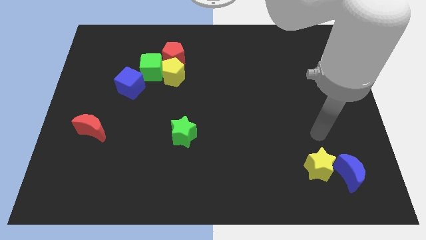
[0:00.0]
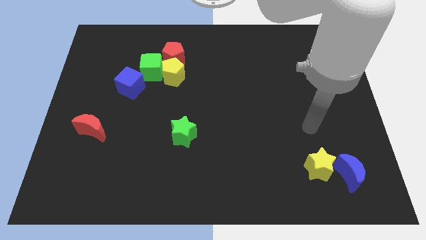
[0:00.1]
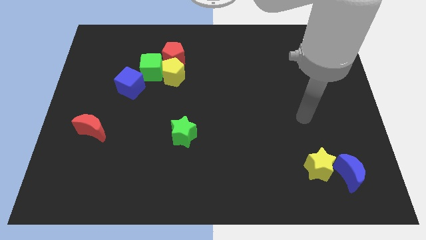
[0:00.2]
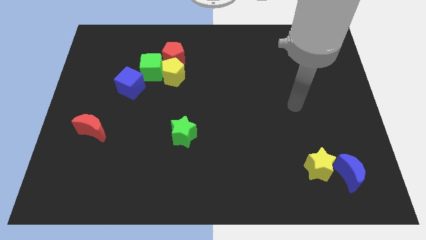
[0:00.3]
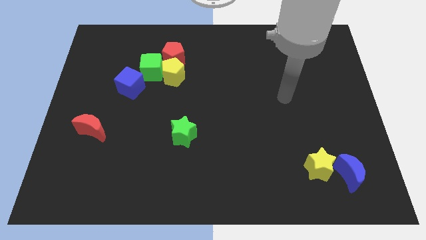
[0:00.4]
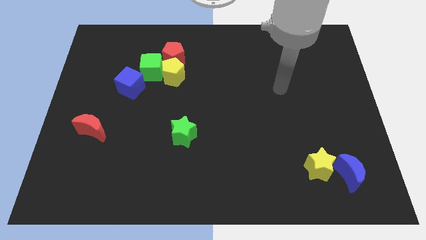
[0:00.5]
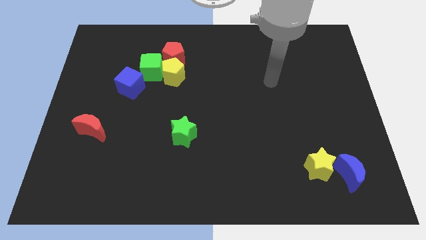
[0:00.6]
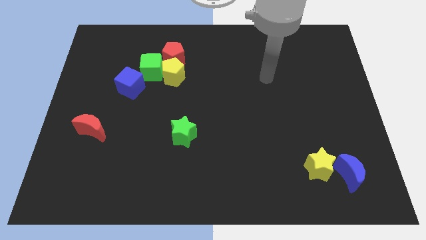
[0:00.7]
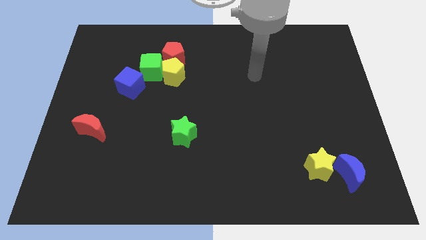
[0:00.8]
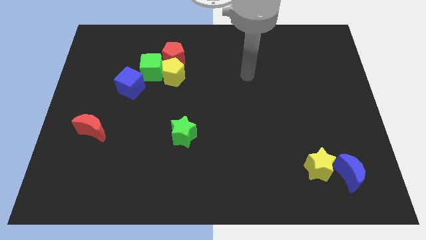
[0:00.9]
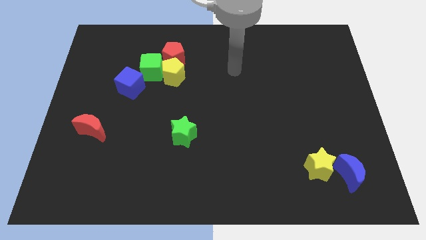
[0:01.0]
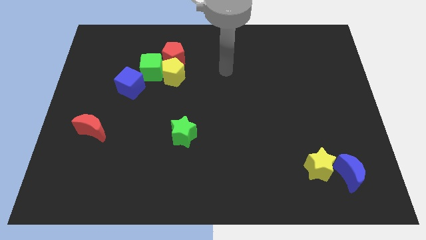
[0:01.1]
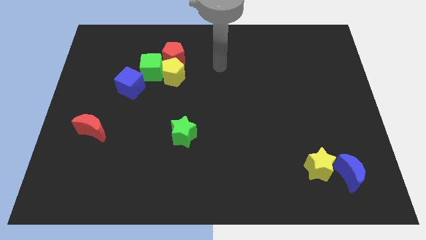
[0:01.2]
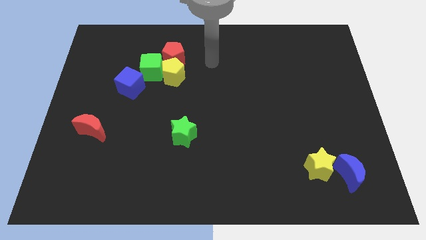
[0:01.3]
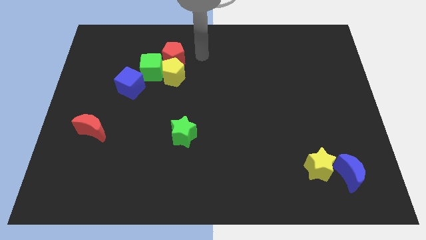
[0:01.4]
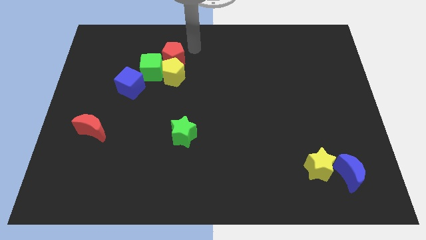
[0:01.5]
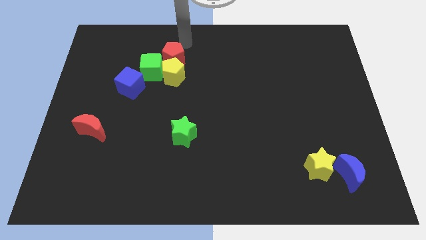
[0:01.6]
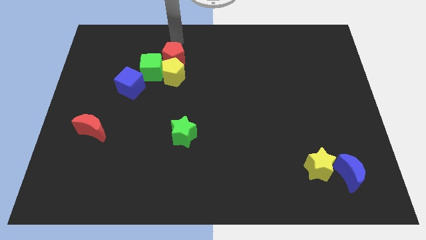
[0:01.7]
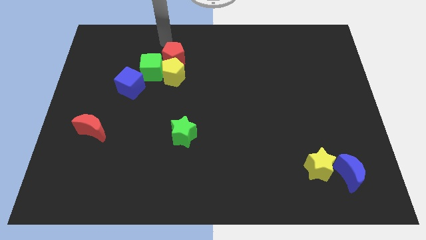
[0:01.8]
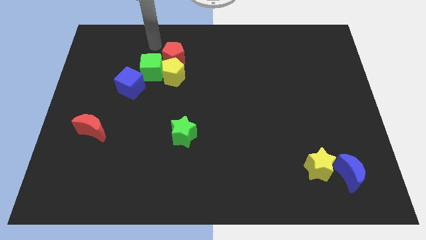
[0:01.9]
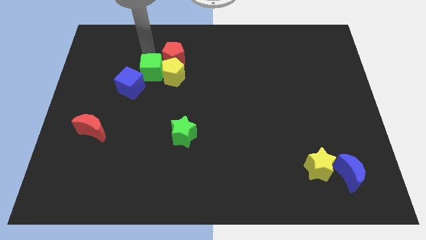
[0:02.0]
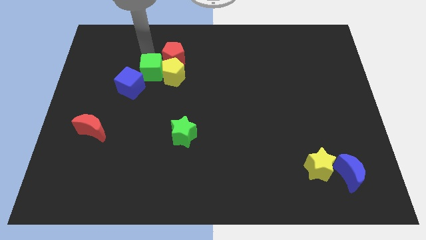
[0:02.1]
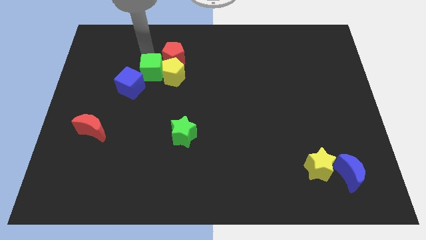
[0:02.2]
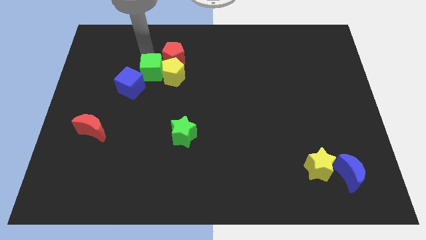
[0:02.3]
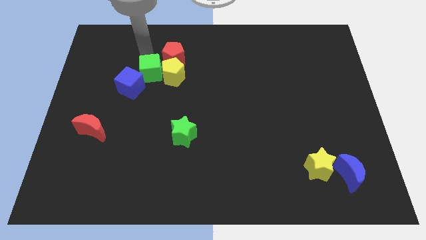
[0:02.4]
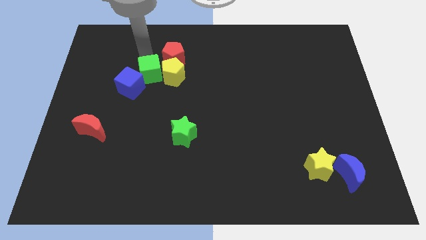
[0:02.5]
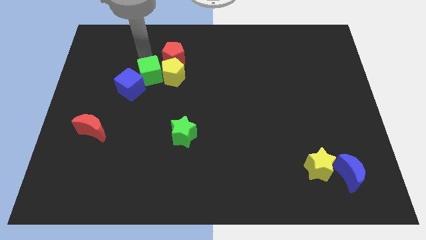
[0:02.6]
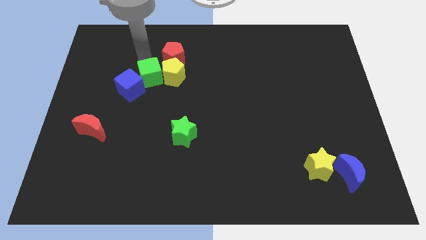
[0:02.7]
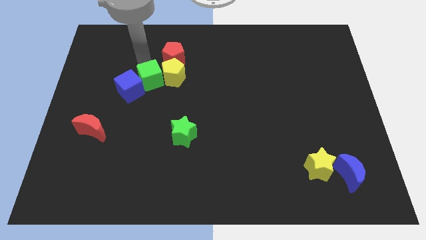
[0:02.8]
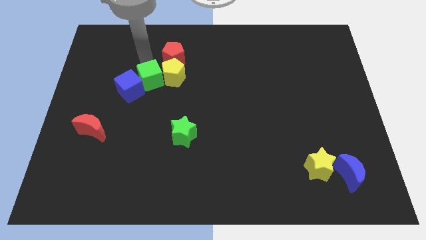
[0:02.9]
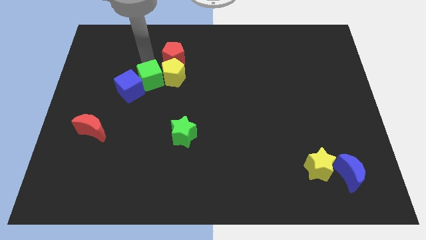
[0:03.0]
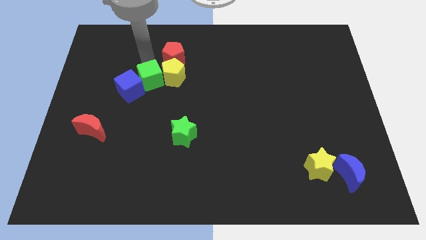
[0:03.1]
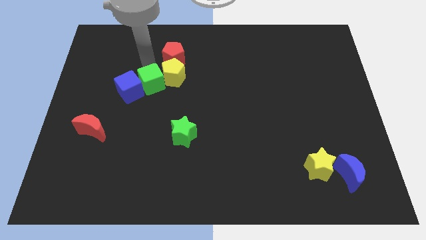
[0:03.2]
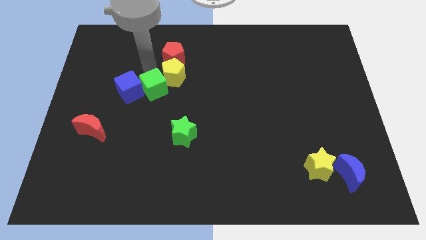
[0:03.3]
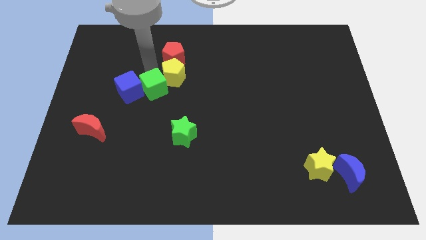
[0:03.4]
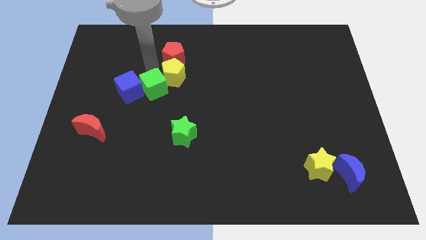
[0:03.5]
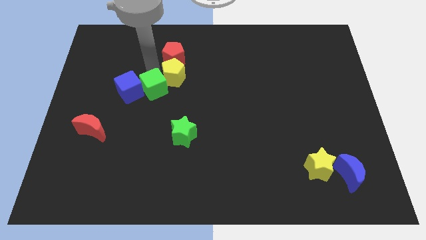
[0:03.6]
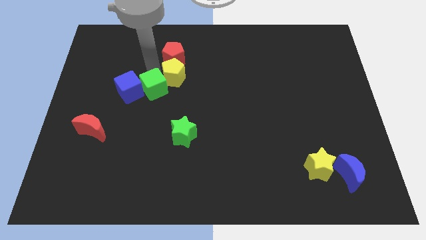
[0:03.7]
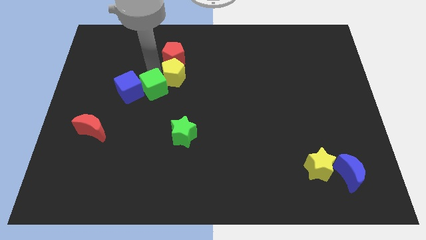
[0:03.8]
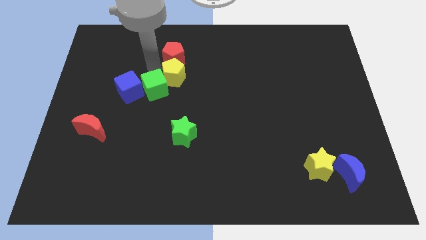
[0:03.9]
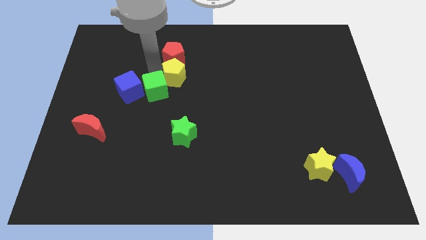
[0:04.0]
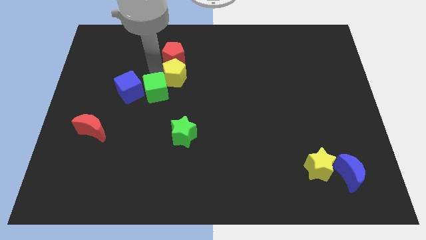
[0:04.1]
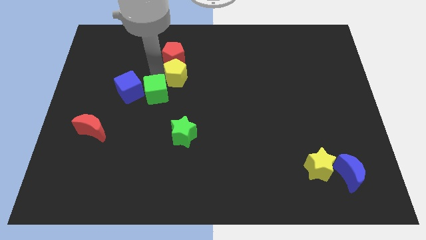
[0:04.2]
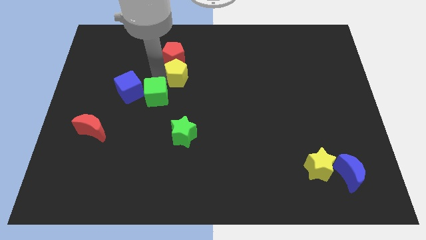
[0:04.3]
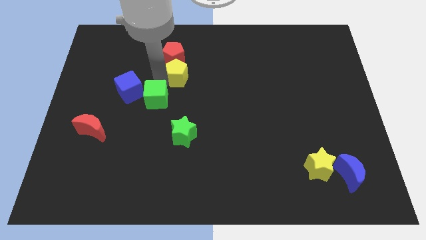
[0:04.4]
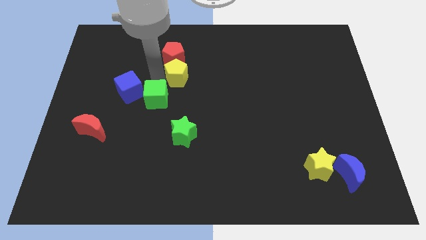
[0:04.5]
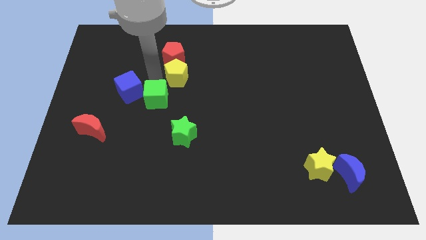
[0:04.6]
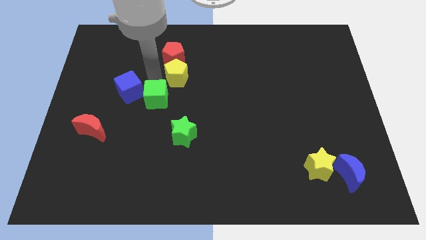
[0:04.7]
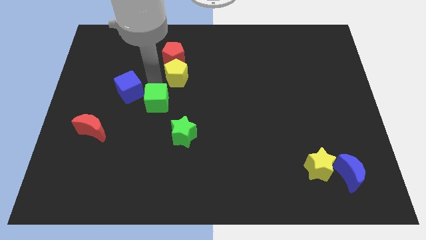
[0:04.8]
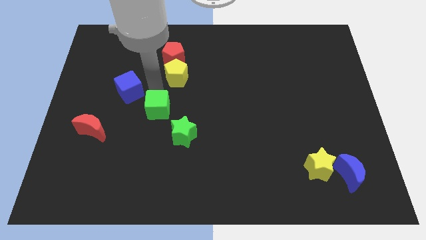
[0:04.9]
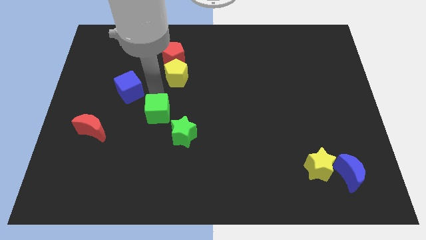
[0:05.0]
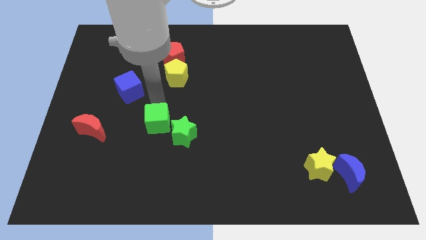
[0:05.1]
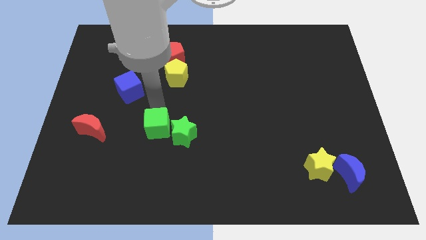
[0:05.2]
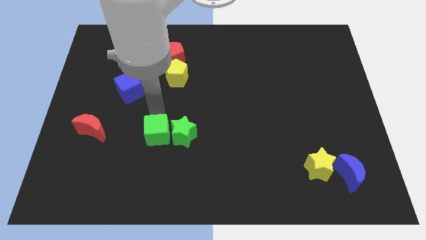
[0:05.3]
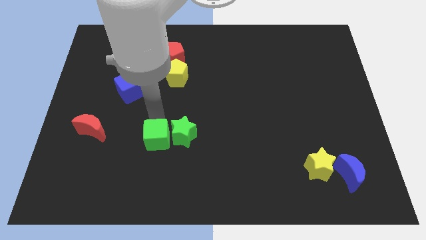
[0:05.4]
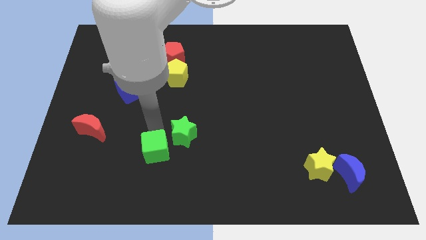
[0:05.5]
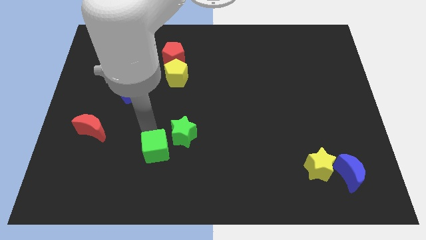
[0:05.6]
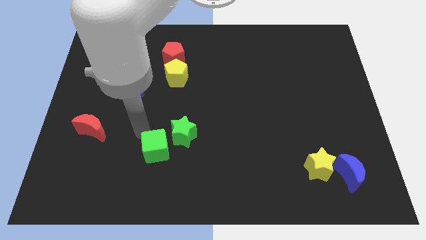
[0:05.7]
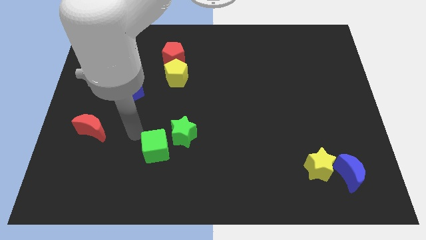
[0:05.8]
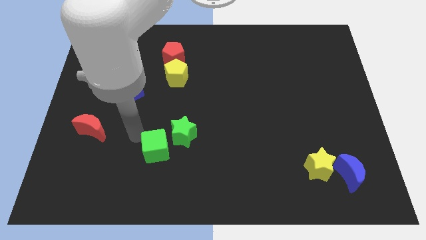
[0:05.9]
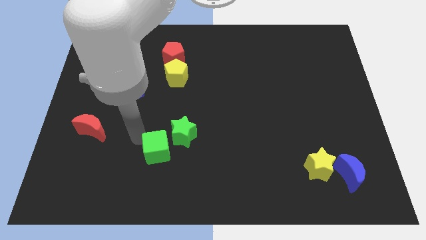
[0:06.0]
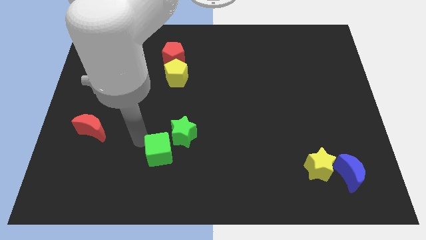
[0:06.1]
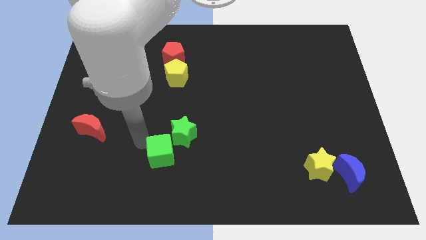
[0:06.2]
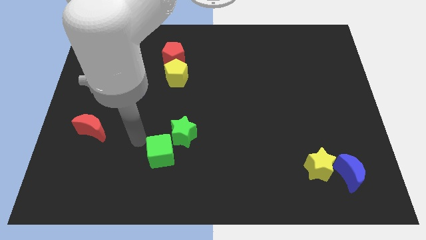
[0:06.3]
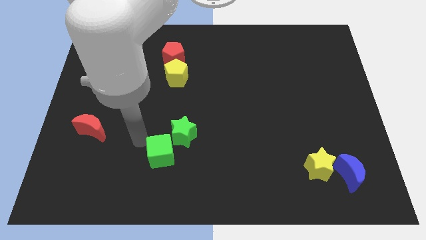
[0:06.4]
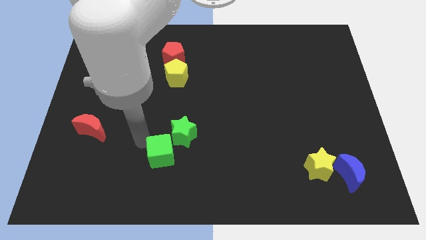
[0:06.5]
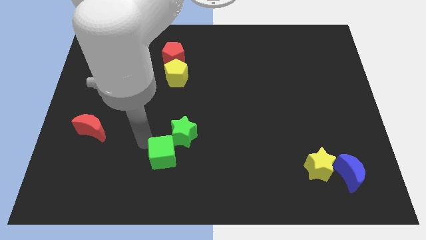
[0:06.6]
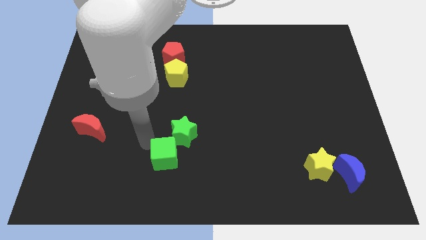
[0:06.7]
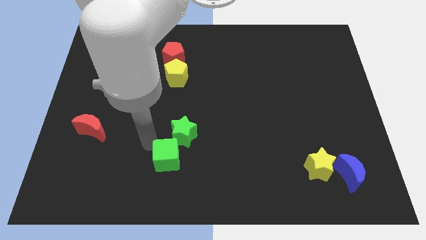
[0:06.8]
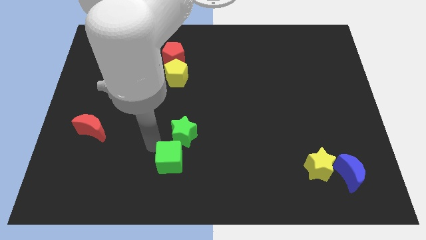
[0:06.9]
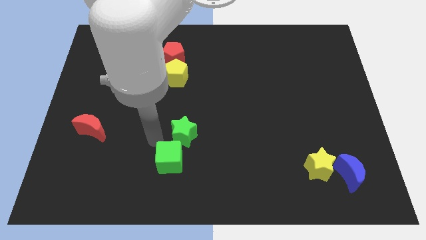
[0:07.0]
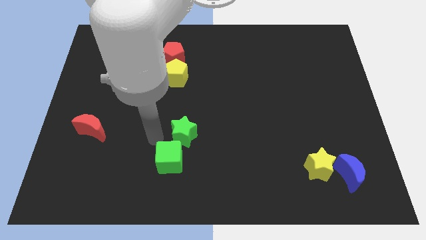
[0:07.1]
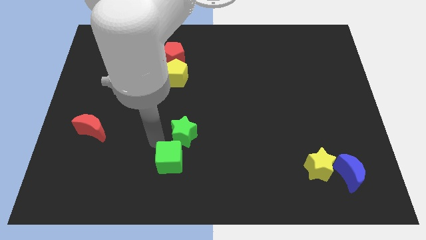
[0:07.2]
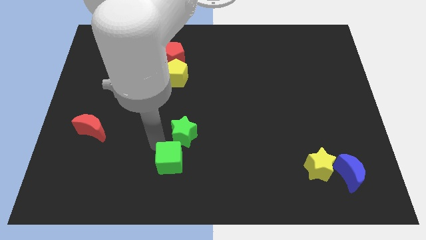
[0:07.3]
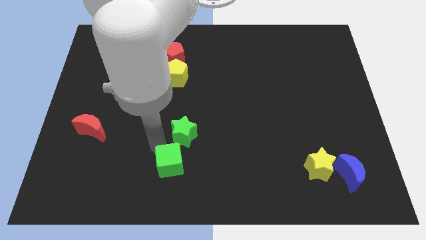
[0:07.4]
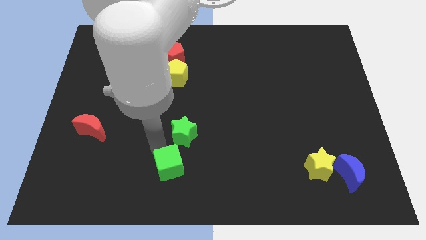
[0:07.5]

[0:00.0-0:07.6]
push the green cube to the bottom side
